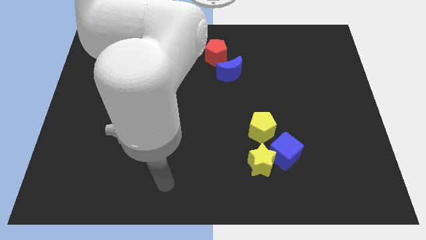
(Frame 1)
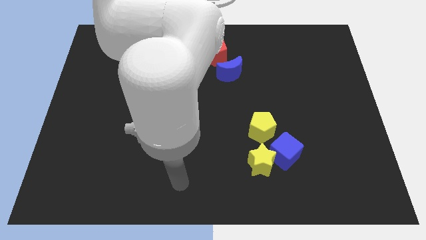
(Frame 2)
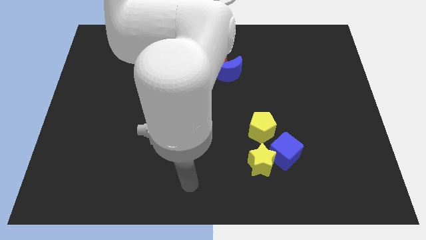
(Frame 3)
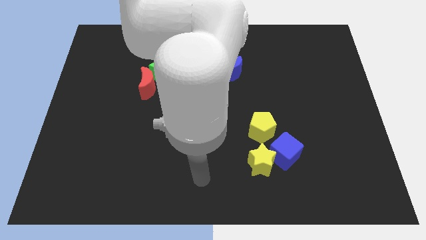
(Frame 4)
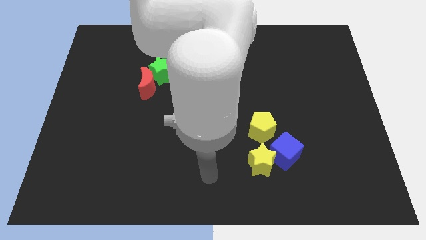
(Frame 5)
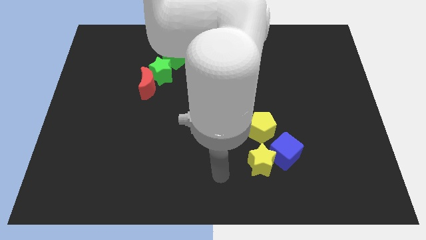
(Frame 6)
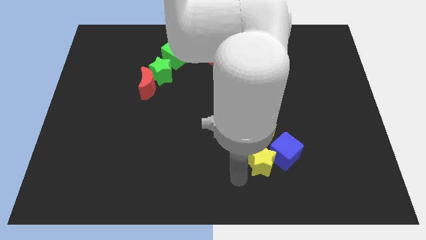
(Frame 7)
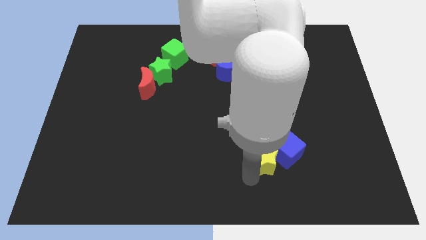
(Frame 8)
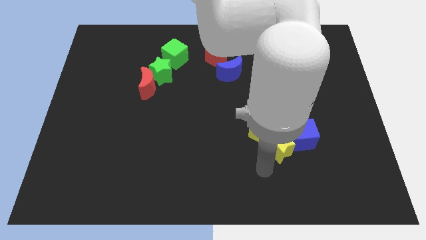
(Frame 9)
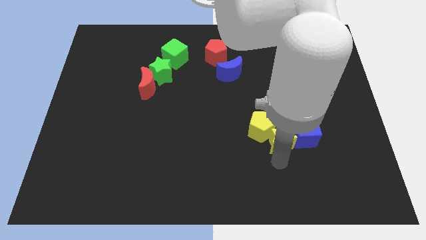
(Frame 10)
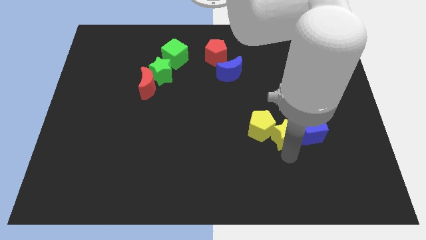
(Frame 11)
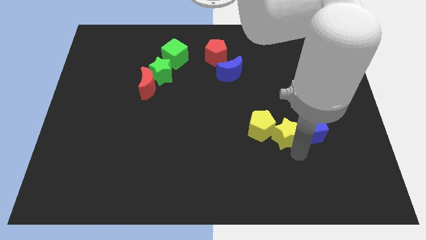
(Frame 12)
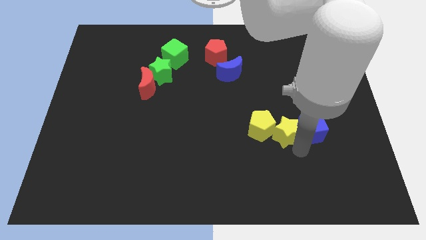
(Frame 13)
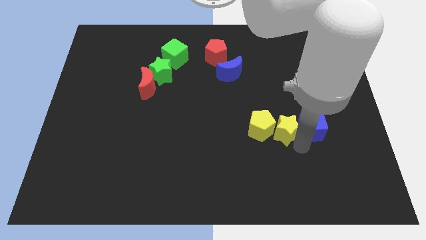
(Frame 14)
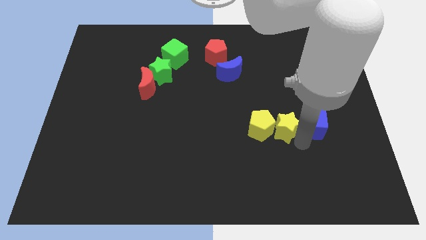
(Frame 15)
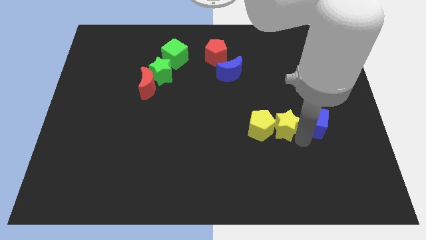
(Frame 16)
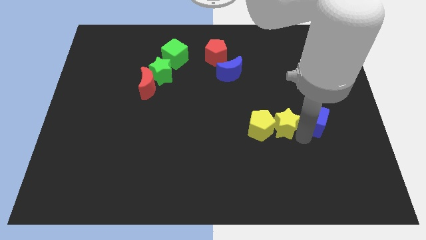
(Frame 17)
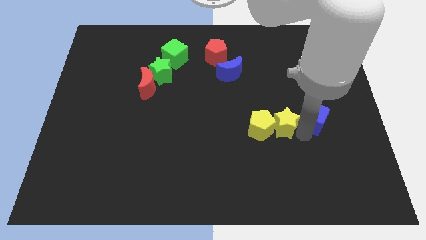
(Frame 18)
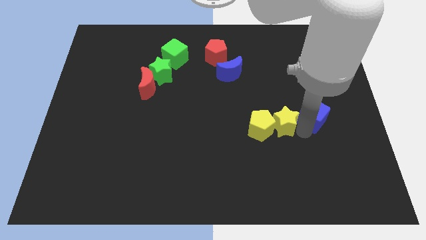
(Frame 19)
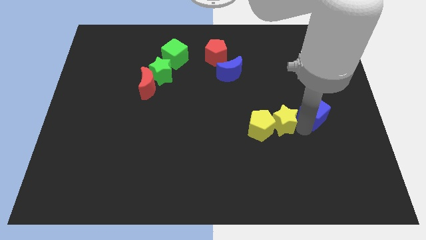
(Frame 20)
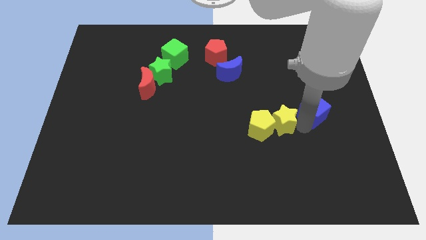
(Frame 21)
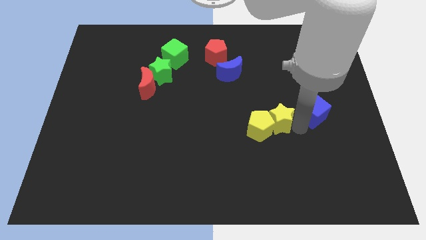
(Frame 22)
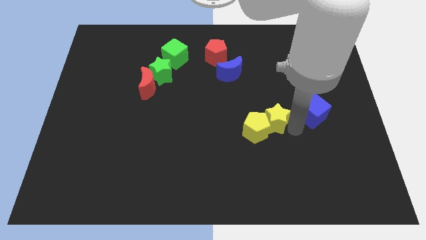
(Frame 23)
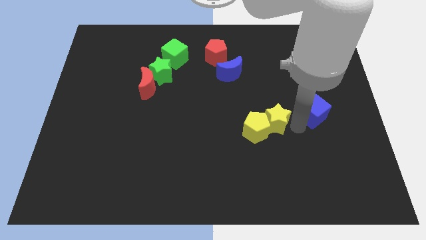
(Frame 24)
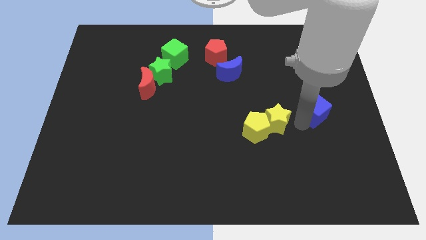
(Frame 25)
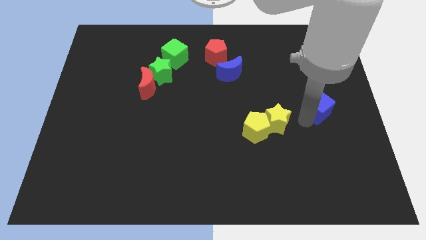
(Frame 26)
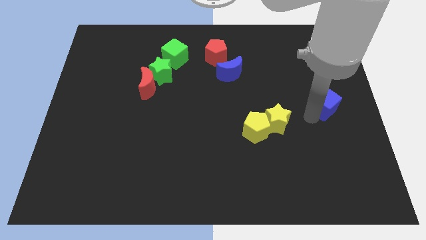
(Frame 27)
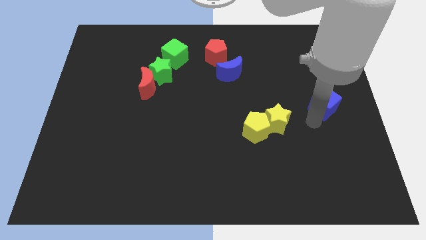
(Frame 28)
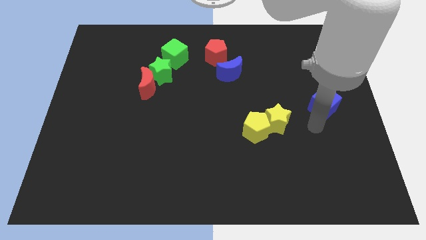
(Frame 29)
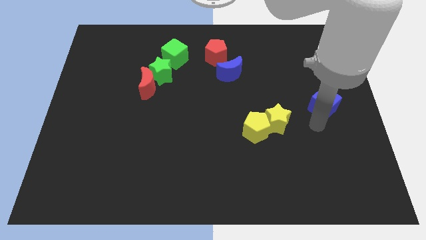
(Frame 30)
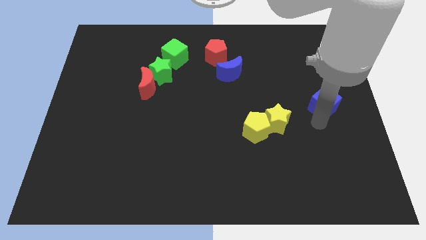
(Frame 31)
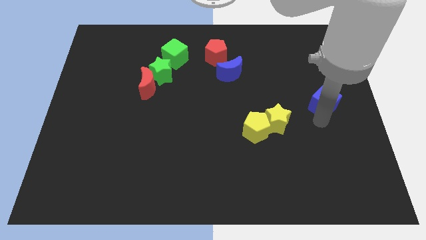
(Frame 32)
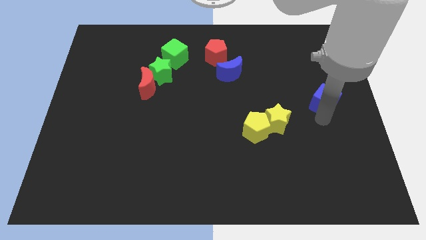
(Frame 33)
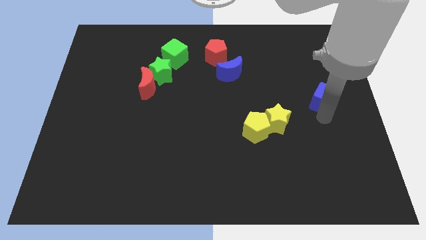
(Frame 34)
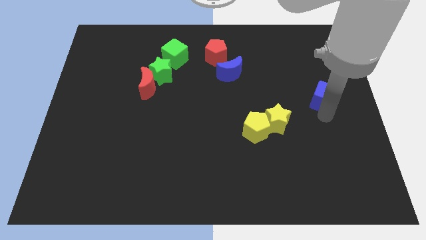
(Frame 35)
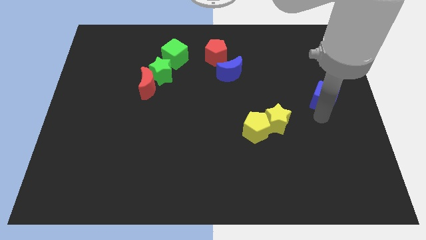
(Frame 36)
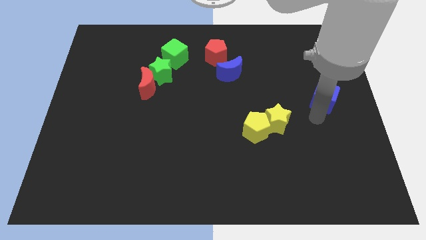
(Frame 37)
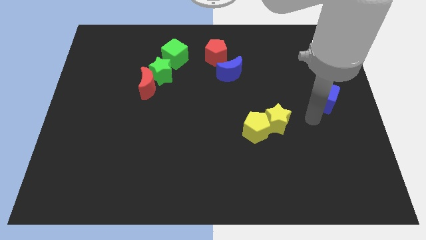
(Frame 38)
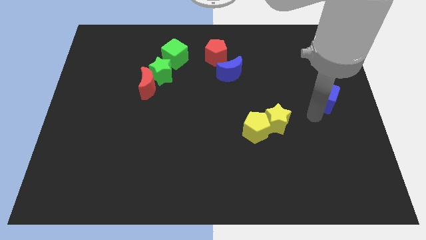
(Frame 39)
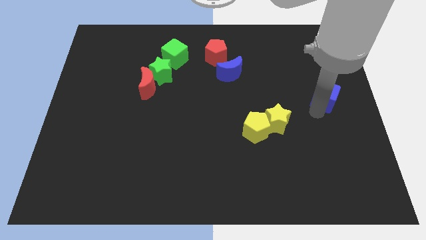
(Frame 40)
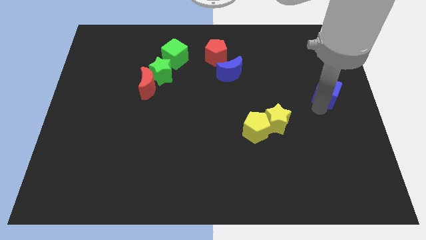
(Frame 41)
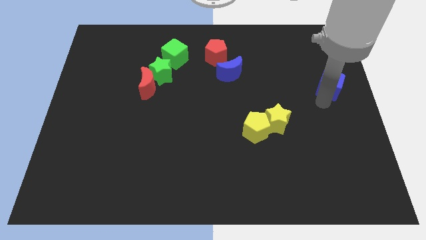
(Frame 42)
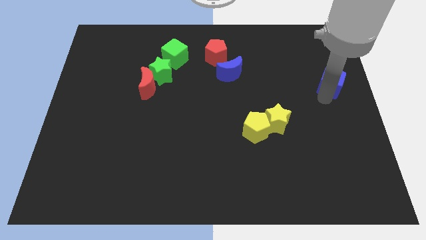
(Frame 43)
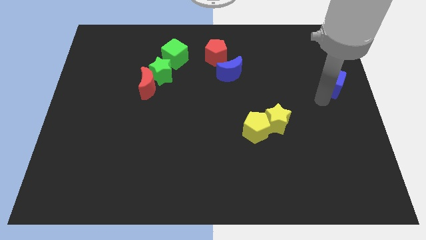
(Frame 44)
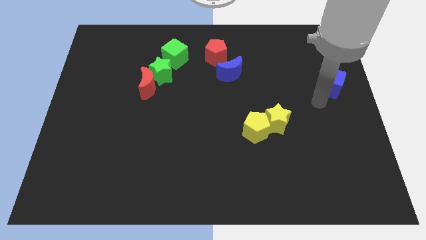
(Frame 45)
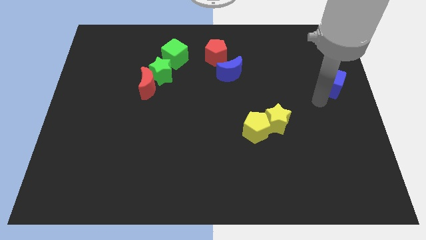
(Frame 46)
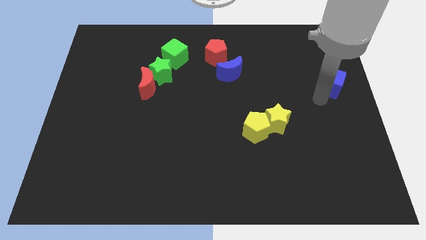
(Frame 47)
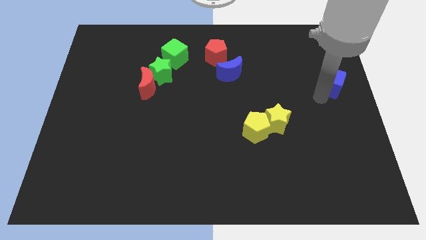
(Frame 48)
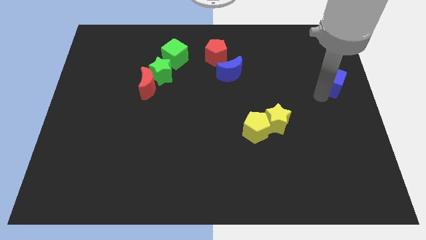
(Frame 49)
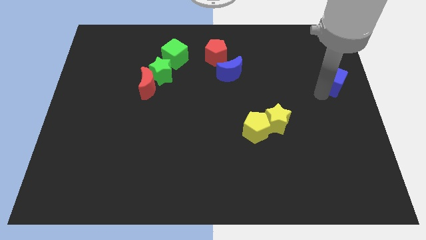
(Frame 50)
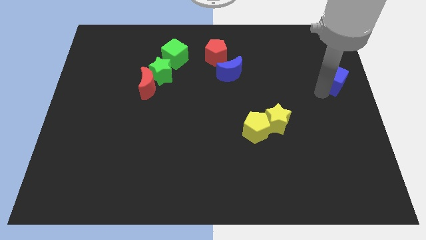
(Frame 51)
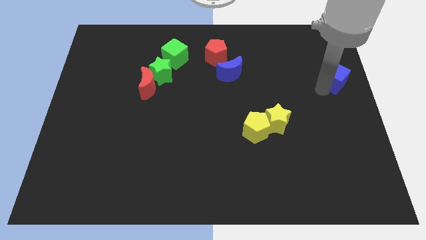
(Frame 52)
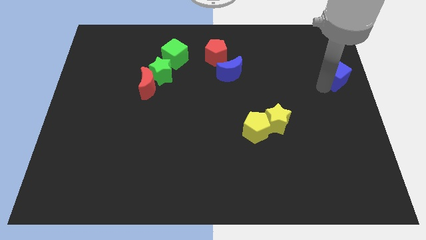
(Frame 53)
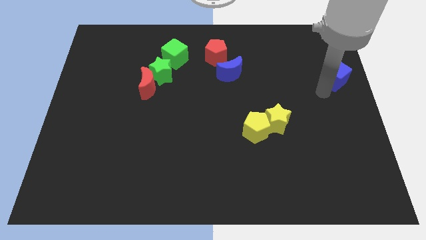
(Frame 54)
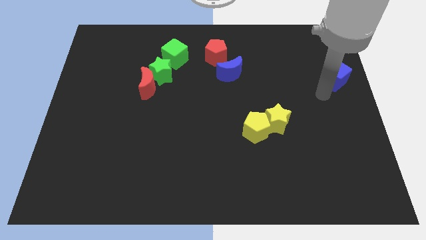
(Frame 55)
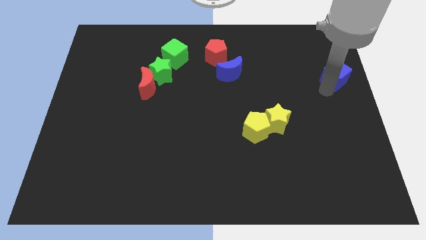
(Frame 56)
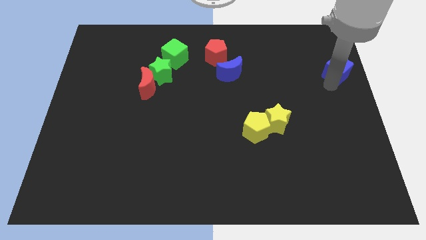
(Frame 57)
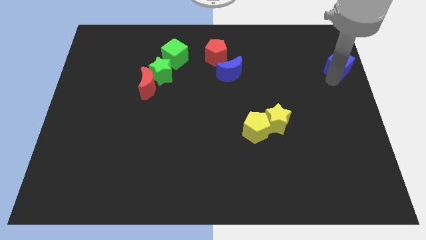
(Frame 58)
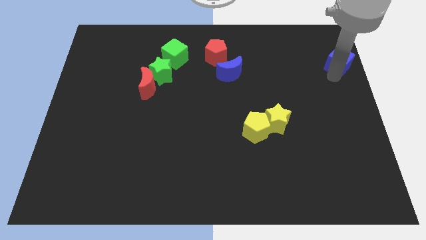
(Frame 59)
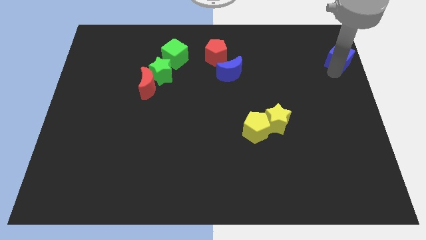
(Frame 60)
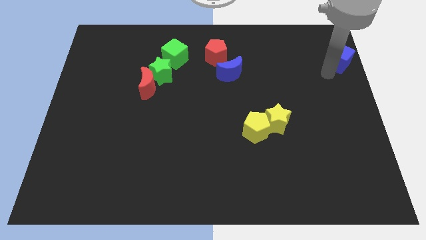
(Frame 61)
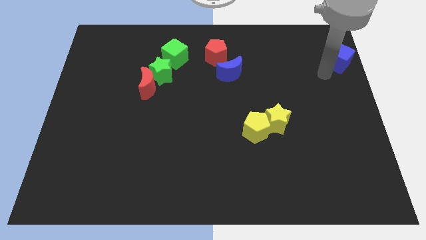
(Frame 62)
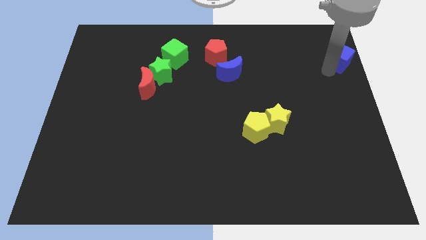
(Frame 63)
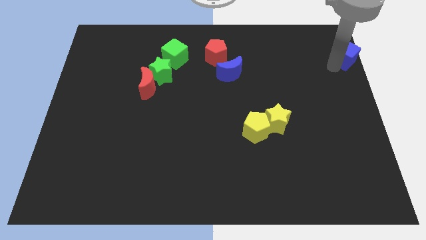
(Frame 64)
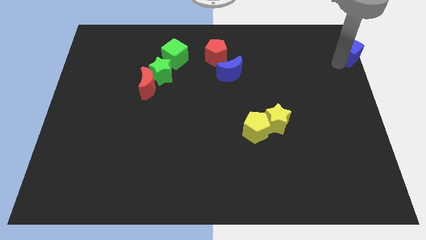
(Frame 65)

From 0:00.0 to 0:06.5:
push the blue cube to the upper right corner
